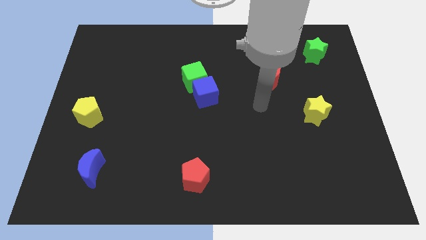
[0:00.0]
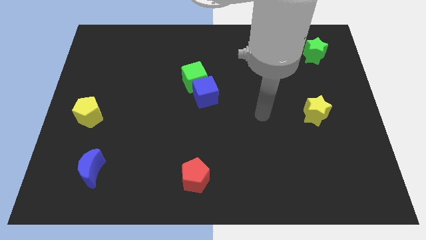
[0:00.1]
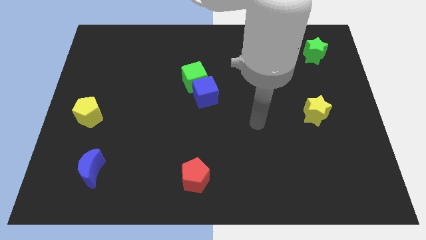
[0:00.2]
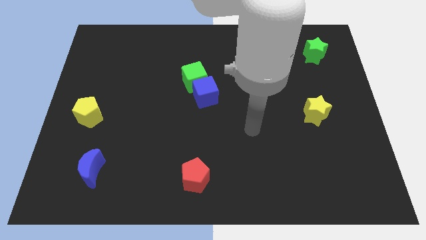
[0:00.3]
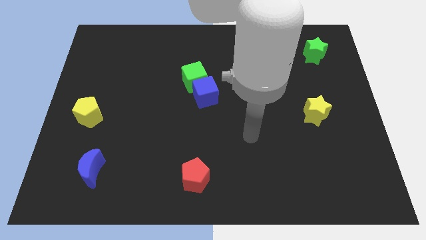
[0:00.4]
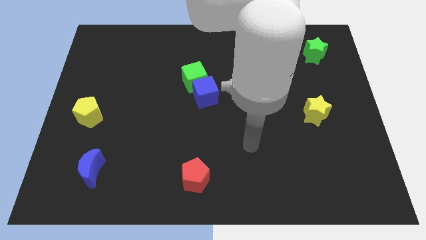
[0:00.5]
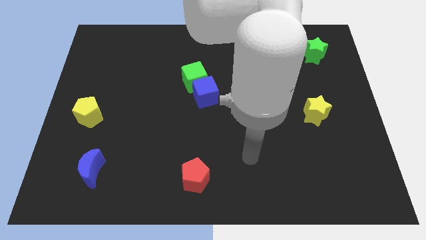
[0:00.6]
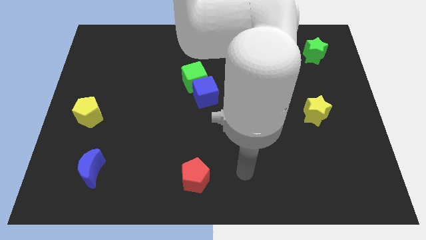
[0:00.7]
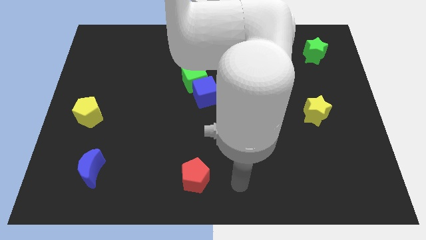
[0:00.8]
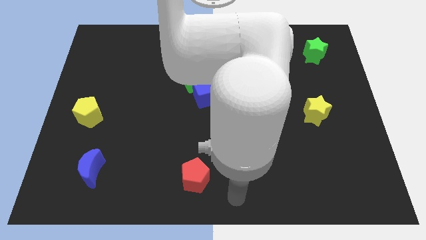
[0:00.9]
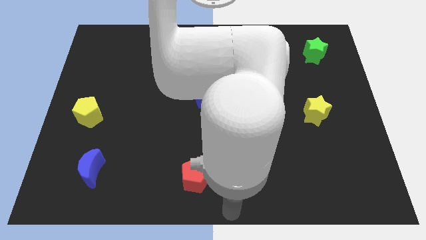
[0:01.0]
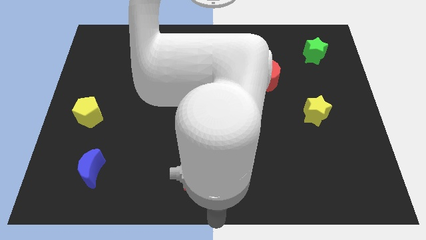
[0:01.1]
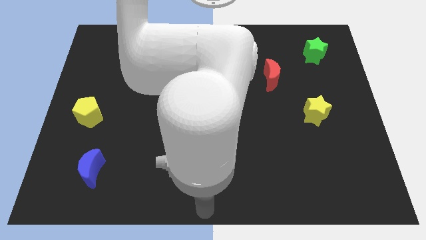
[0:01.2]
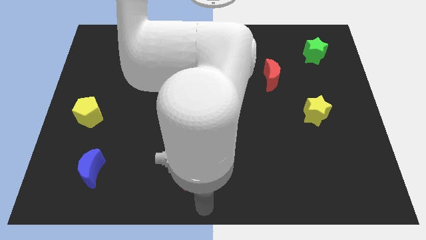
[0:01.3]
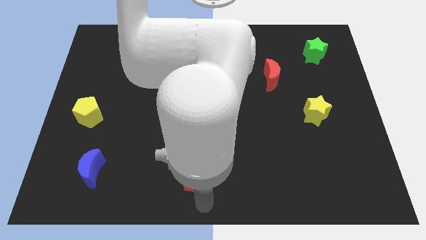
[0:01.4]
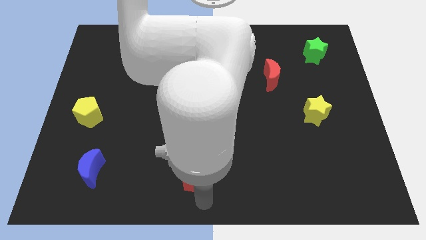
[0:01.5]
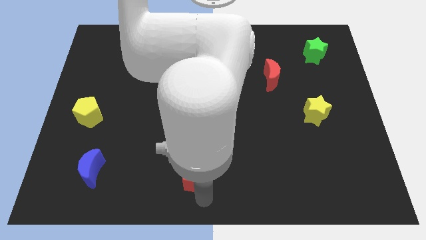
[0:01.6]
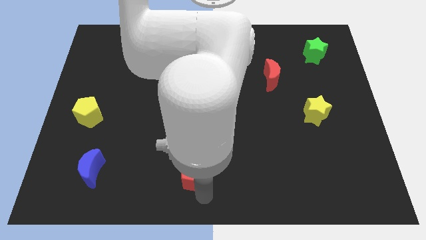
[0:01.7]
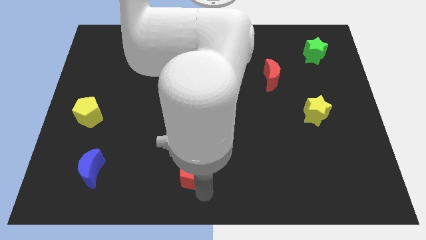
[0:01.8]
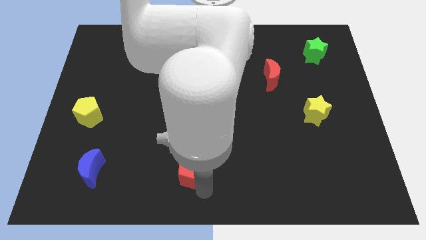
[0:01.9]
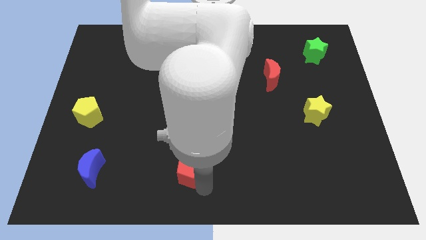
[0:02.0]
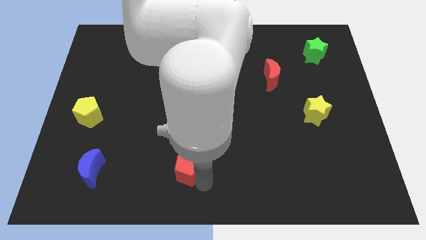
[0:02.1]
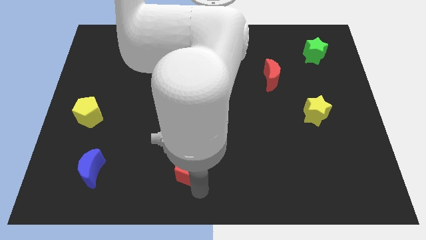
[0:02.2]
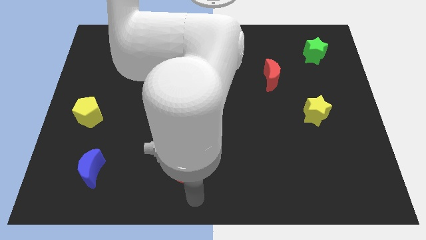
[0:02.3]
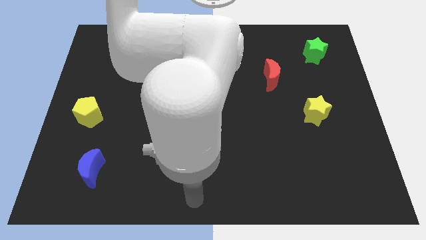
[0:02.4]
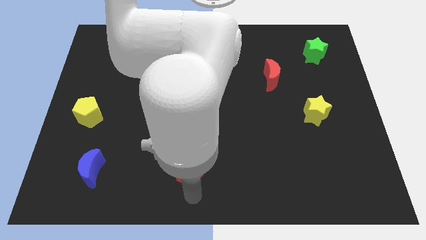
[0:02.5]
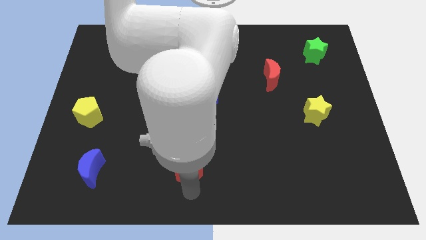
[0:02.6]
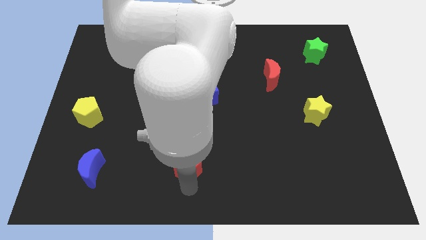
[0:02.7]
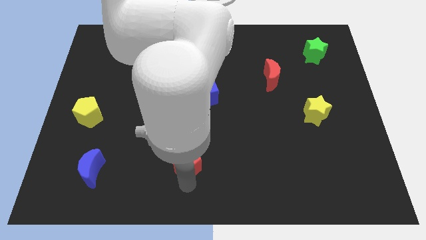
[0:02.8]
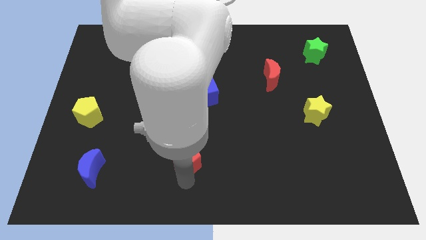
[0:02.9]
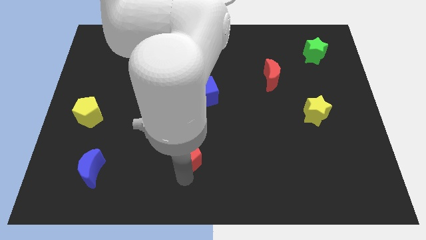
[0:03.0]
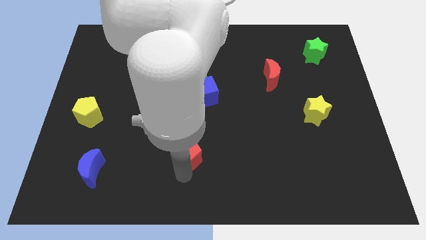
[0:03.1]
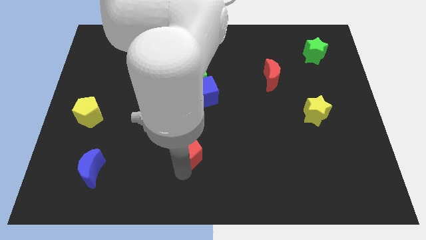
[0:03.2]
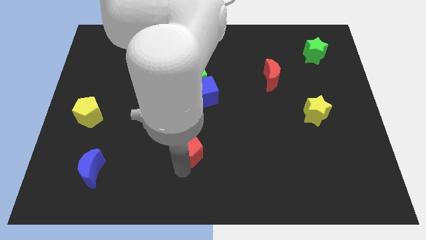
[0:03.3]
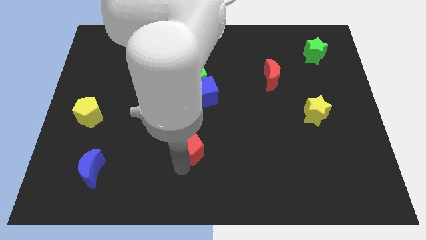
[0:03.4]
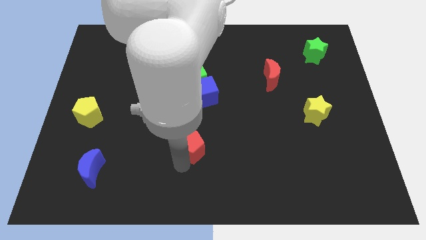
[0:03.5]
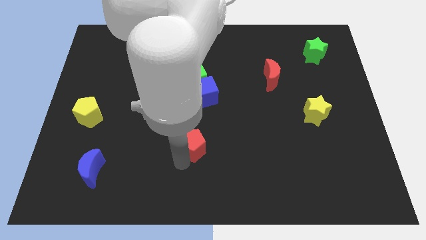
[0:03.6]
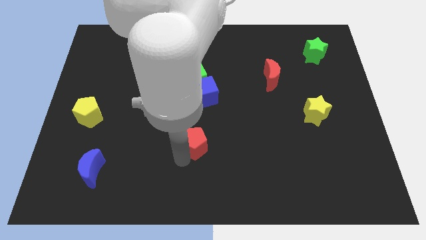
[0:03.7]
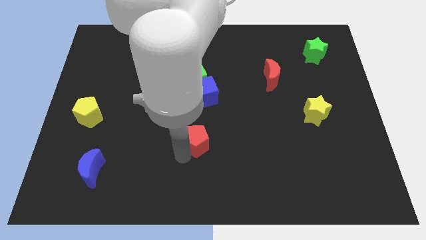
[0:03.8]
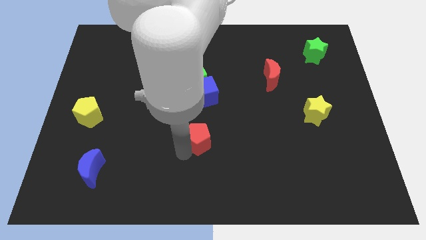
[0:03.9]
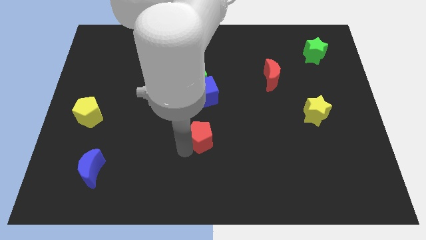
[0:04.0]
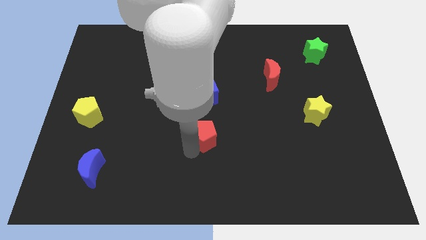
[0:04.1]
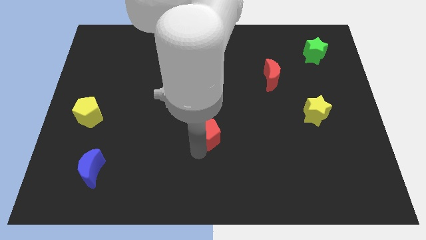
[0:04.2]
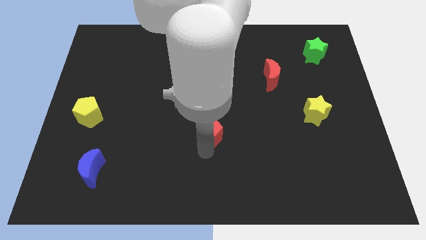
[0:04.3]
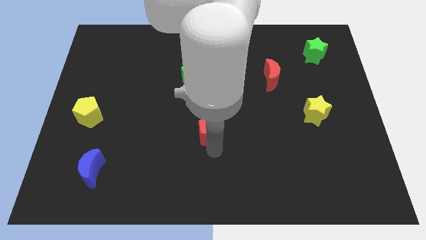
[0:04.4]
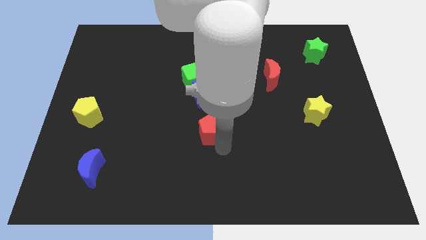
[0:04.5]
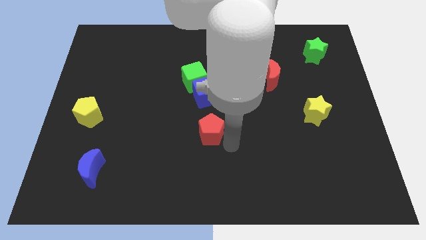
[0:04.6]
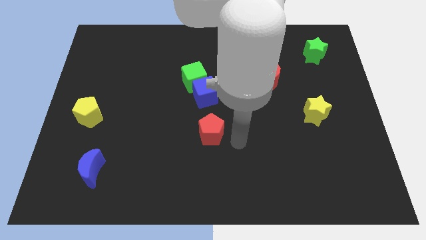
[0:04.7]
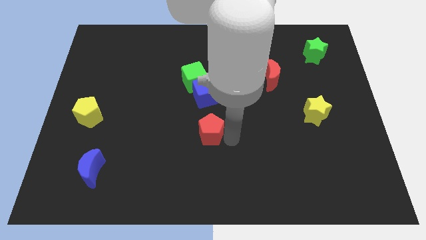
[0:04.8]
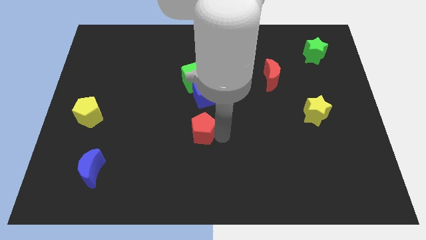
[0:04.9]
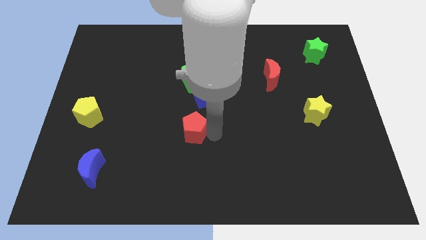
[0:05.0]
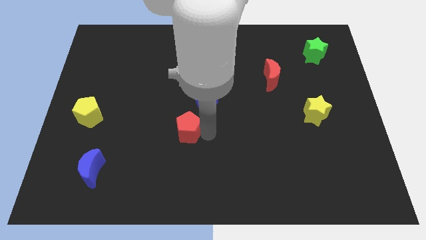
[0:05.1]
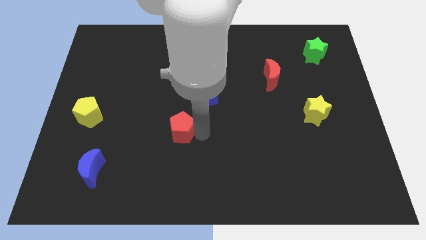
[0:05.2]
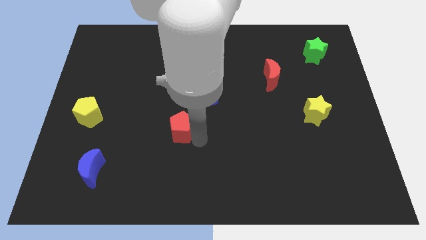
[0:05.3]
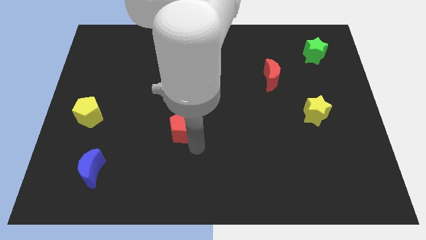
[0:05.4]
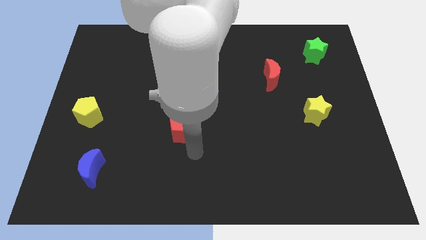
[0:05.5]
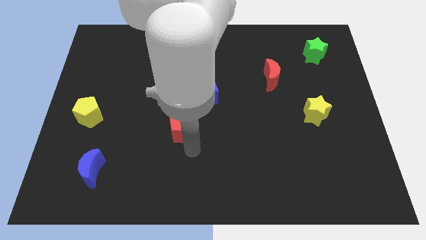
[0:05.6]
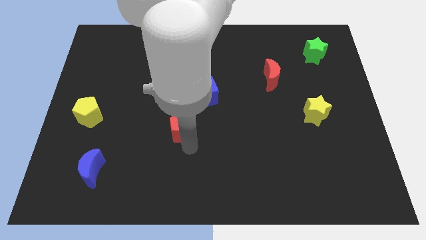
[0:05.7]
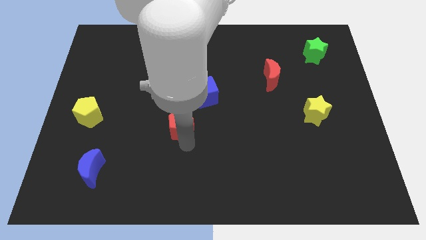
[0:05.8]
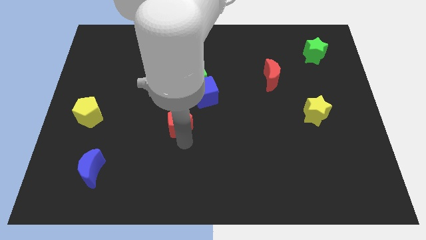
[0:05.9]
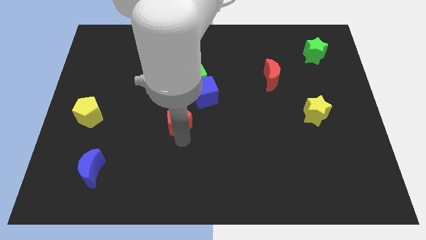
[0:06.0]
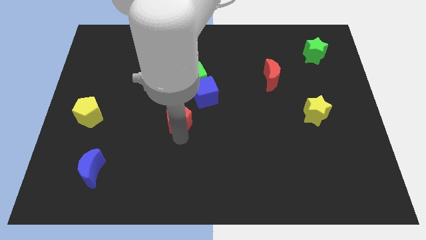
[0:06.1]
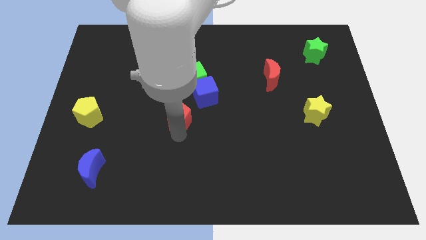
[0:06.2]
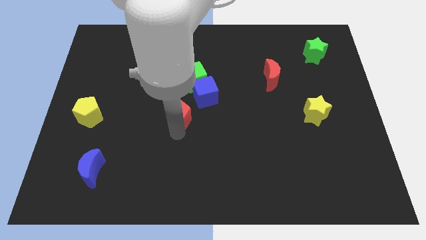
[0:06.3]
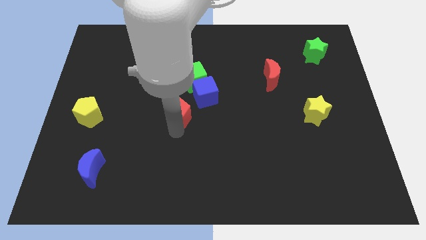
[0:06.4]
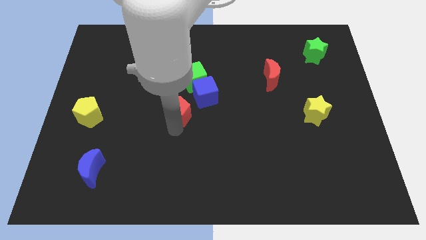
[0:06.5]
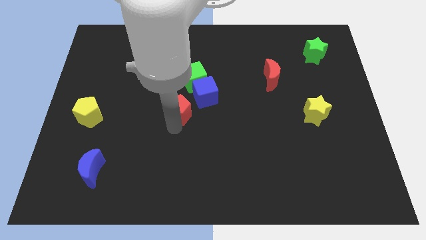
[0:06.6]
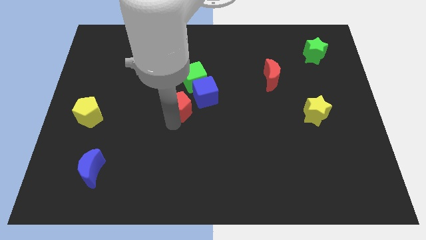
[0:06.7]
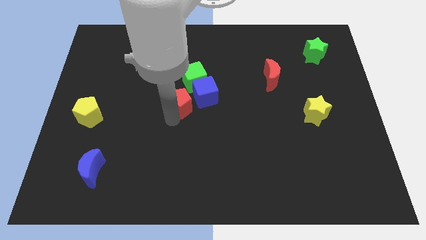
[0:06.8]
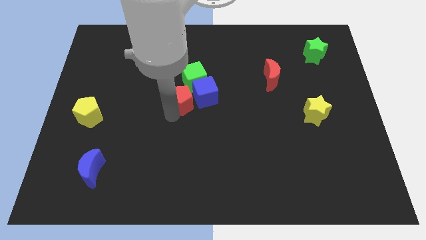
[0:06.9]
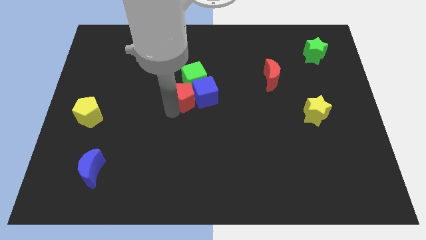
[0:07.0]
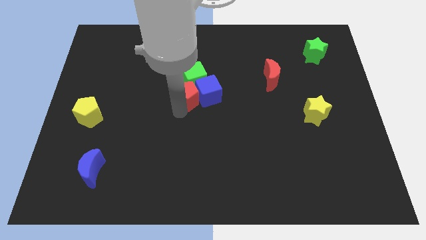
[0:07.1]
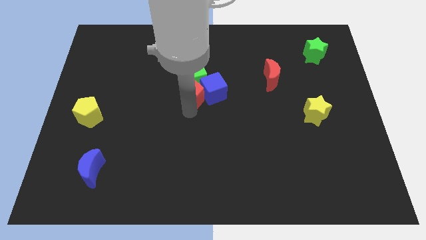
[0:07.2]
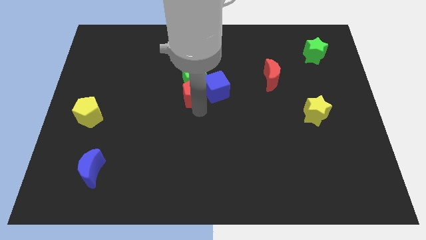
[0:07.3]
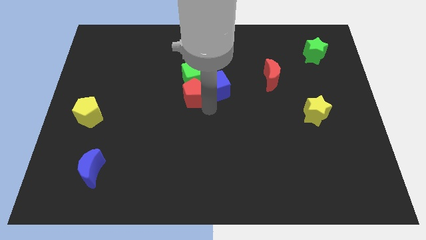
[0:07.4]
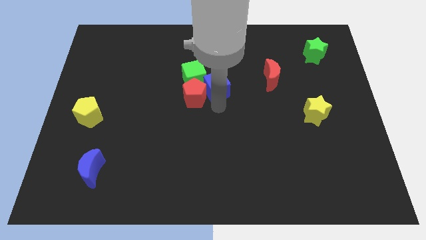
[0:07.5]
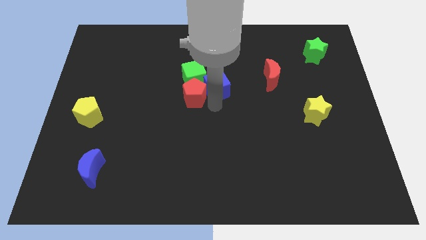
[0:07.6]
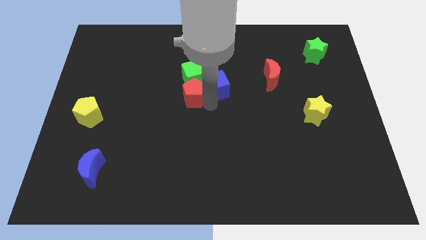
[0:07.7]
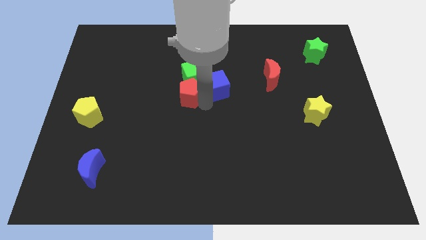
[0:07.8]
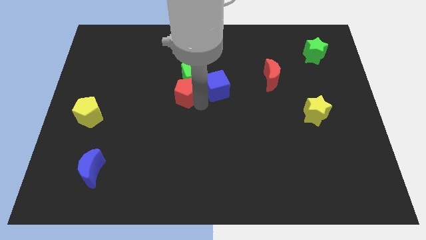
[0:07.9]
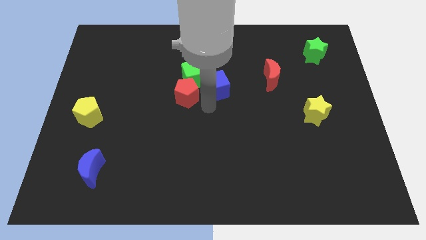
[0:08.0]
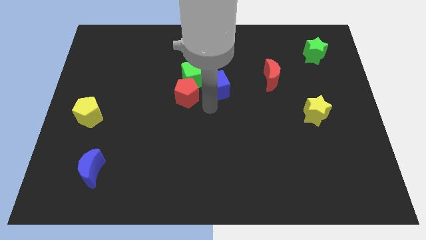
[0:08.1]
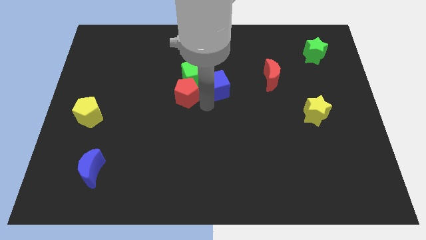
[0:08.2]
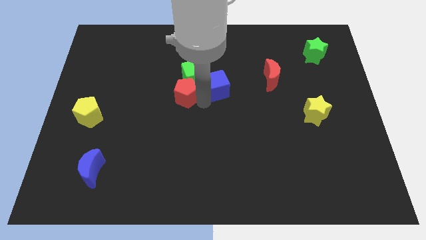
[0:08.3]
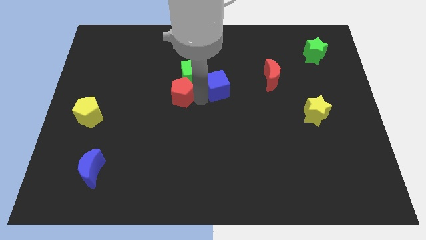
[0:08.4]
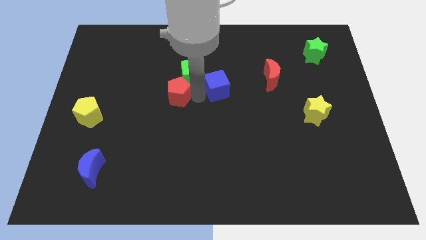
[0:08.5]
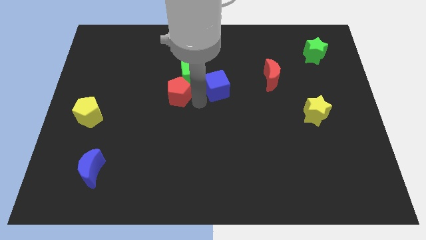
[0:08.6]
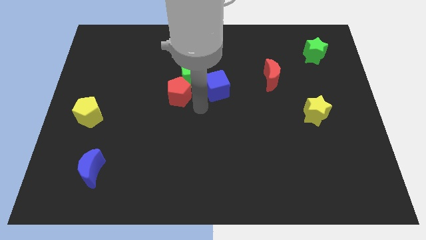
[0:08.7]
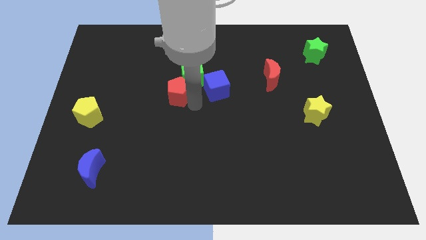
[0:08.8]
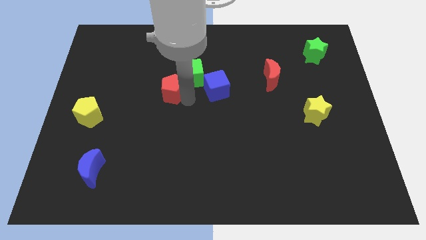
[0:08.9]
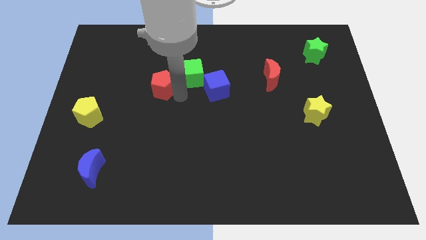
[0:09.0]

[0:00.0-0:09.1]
push the red pentagon to the left of the green cube
